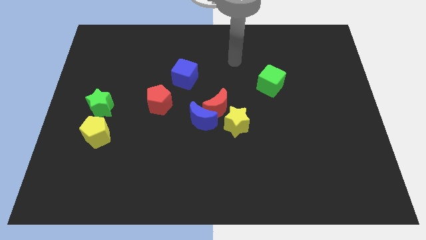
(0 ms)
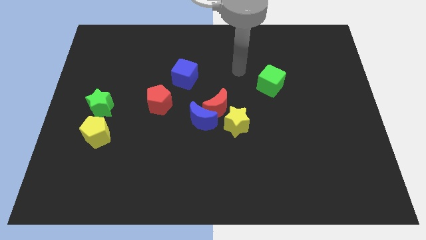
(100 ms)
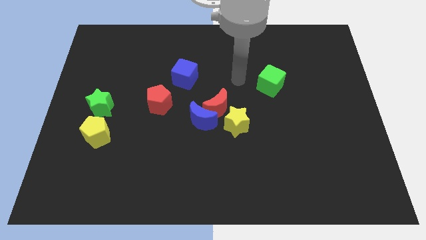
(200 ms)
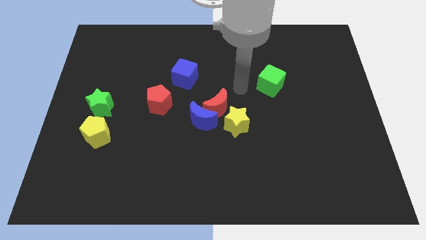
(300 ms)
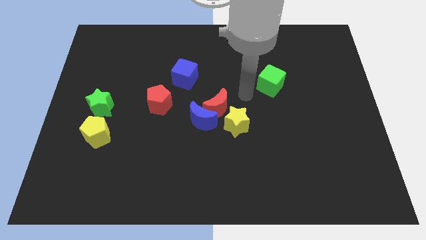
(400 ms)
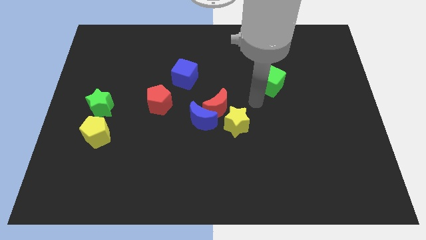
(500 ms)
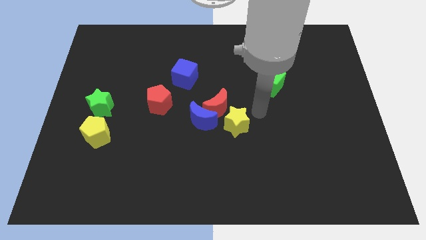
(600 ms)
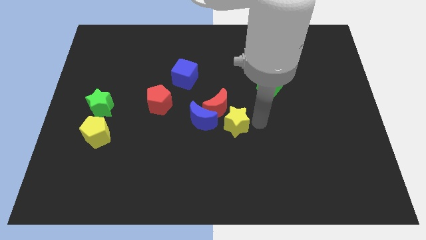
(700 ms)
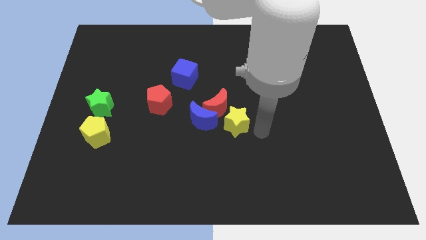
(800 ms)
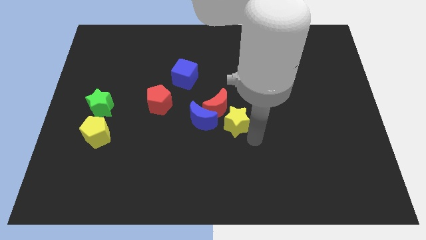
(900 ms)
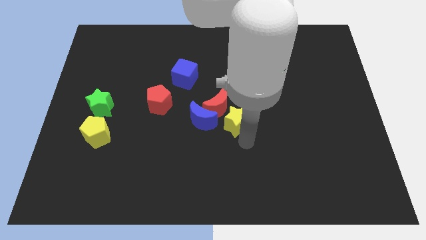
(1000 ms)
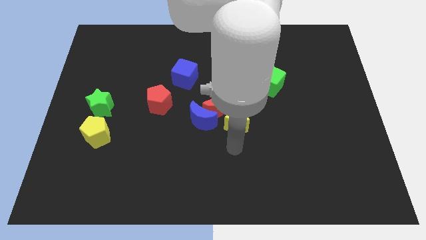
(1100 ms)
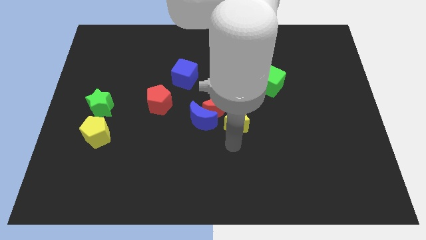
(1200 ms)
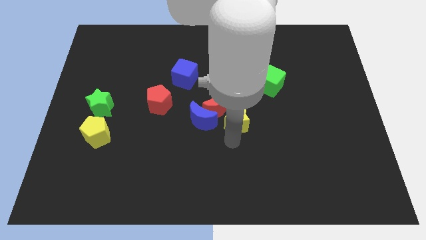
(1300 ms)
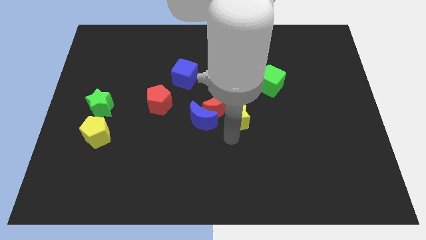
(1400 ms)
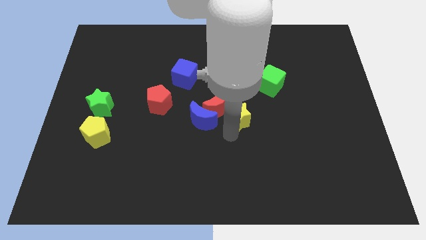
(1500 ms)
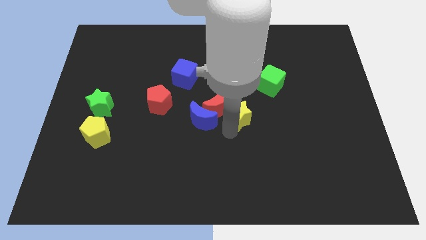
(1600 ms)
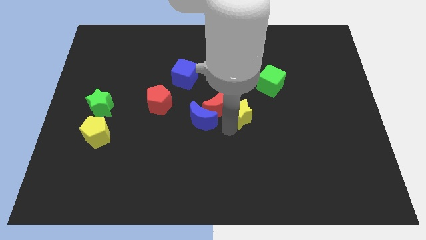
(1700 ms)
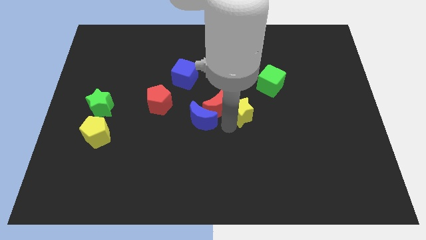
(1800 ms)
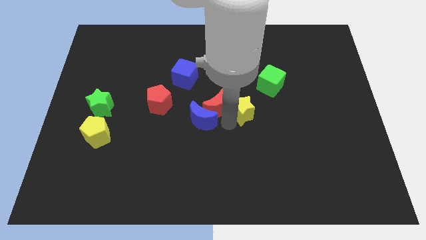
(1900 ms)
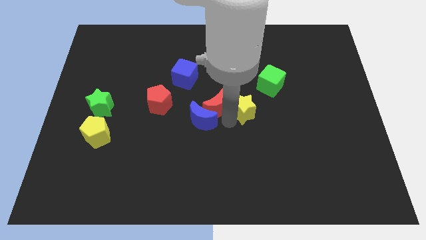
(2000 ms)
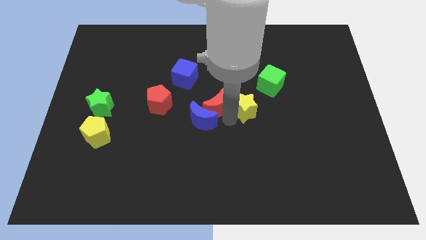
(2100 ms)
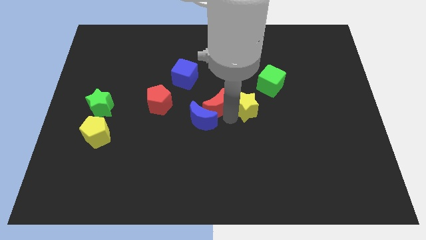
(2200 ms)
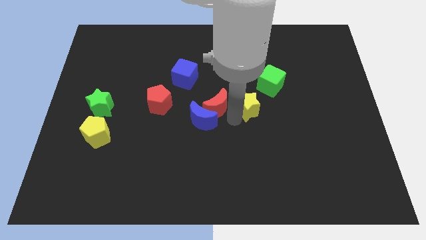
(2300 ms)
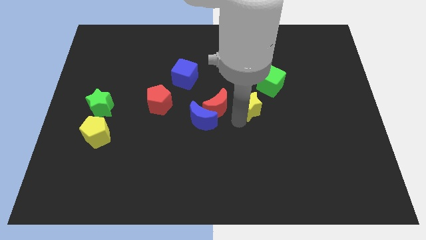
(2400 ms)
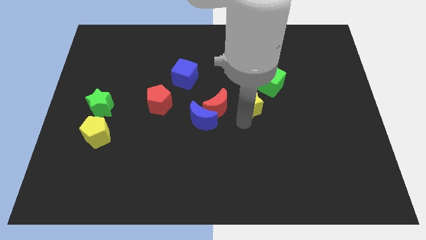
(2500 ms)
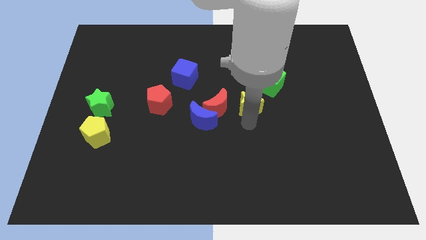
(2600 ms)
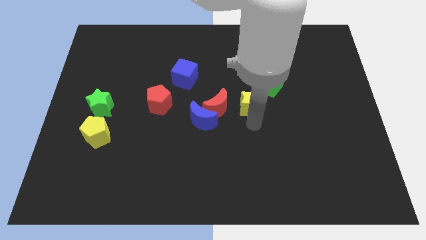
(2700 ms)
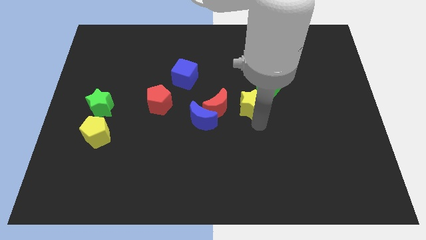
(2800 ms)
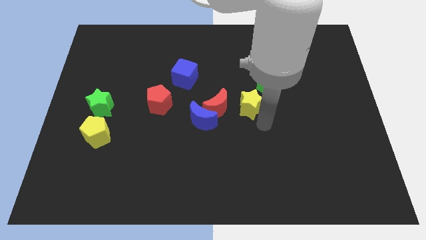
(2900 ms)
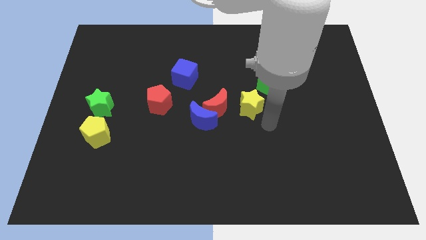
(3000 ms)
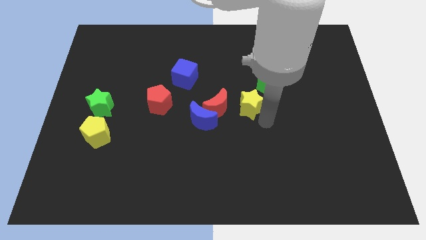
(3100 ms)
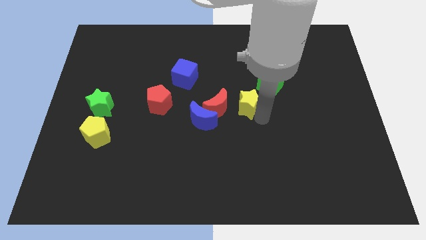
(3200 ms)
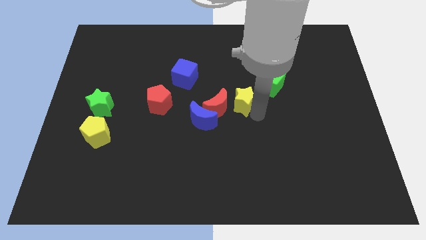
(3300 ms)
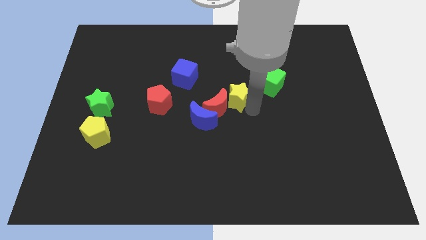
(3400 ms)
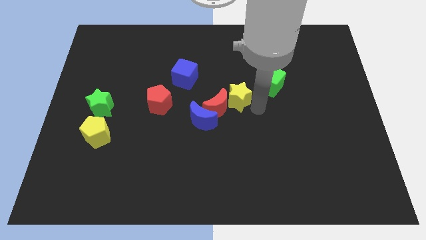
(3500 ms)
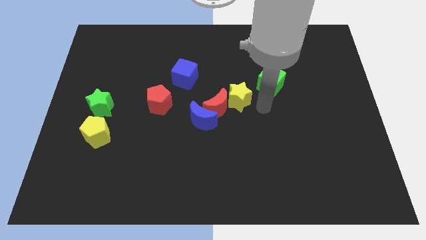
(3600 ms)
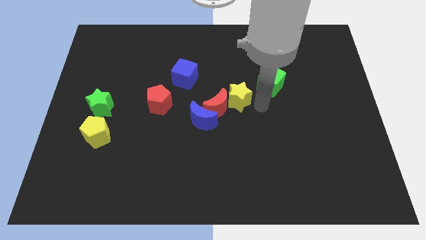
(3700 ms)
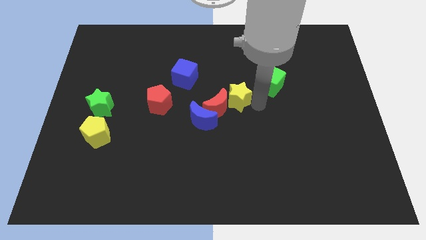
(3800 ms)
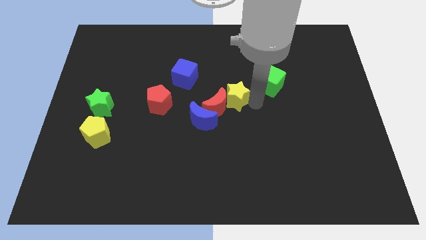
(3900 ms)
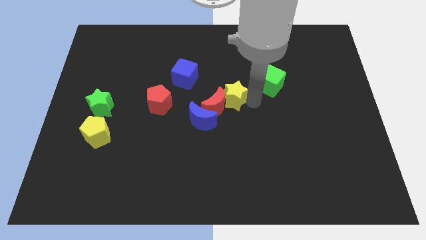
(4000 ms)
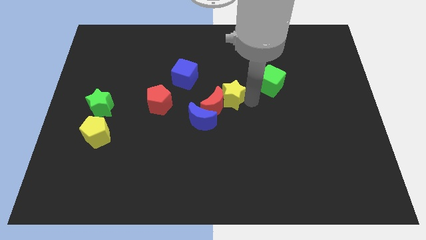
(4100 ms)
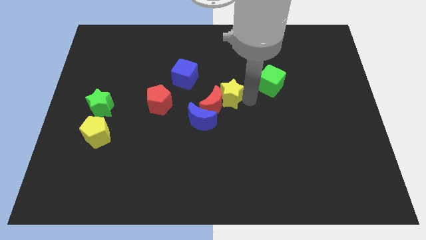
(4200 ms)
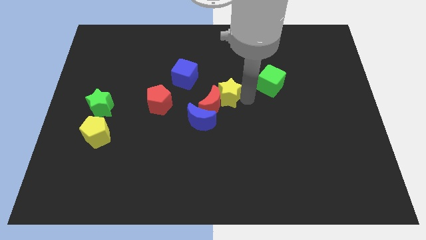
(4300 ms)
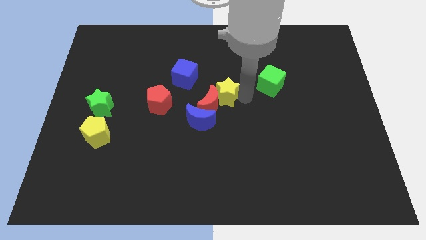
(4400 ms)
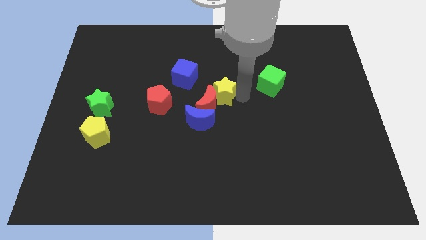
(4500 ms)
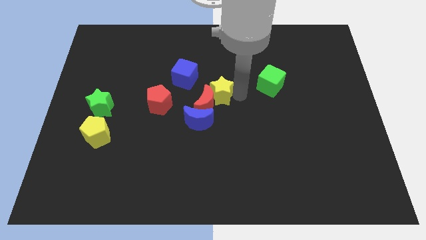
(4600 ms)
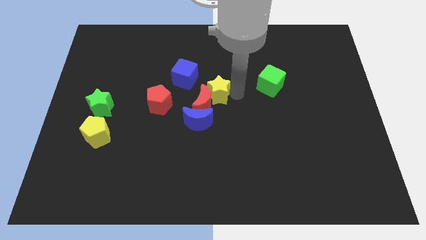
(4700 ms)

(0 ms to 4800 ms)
move the yellow star above the blue moon

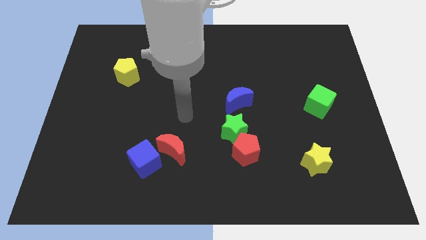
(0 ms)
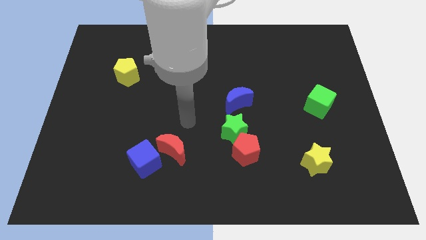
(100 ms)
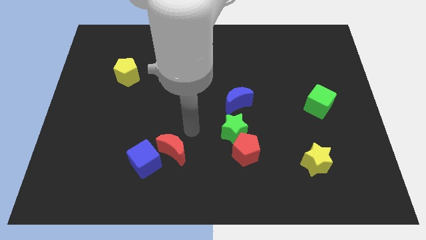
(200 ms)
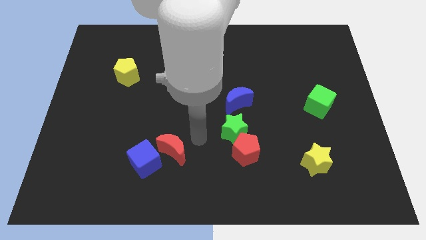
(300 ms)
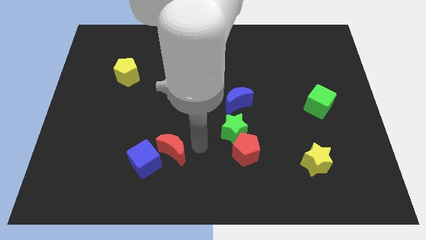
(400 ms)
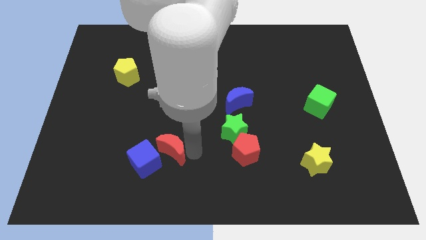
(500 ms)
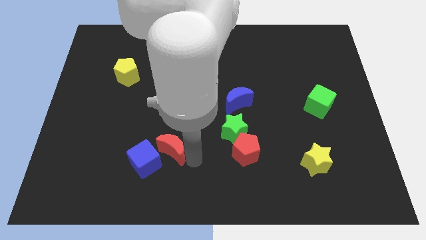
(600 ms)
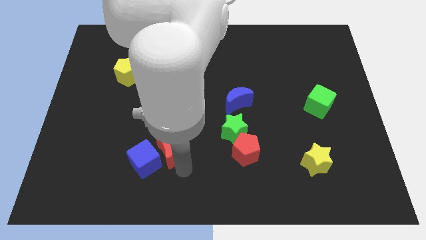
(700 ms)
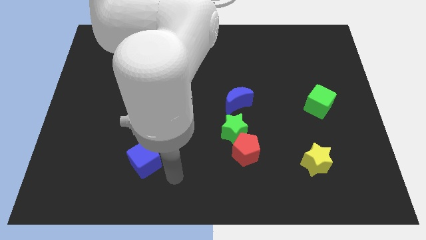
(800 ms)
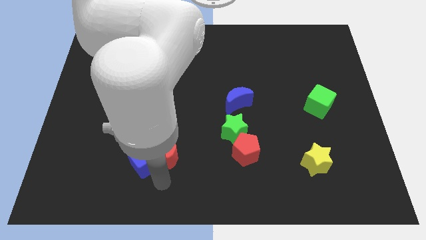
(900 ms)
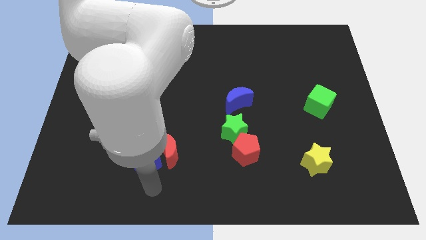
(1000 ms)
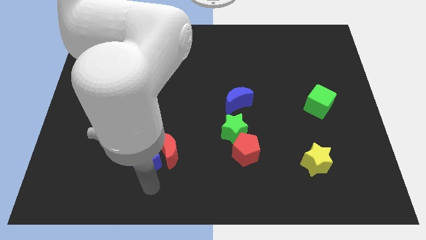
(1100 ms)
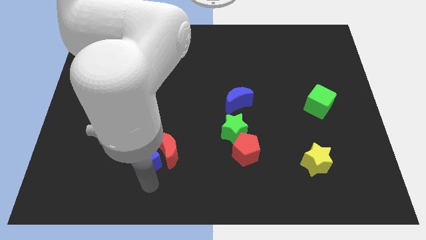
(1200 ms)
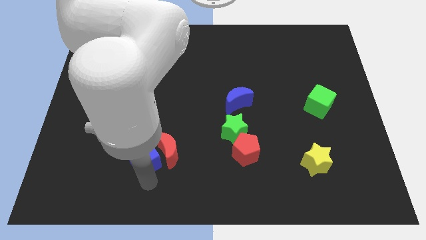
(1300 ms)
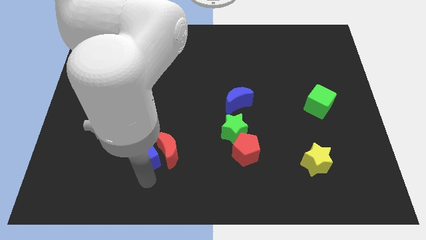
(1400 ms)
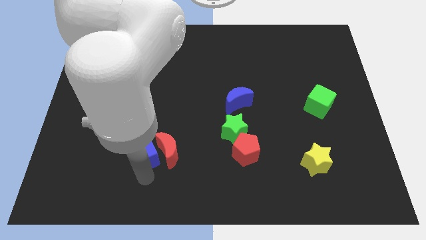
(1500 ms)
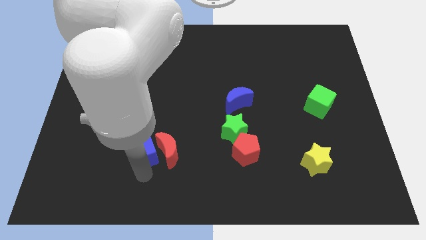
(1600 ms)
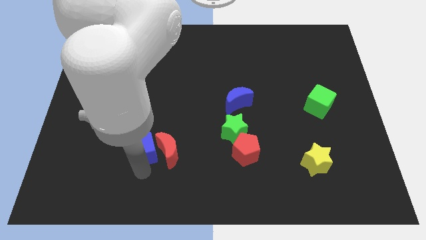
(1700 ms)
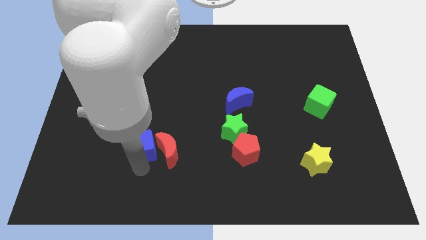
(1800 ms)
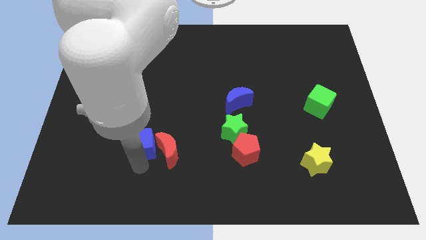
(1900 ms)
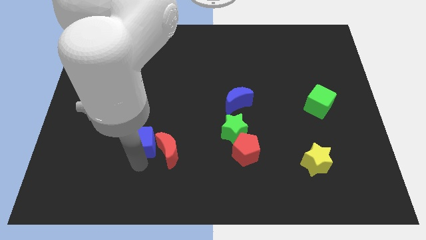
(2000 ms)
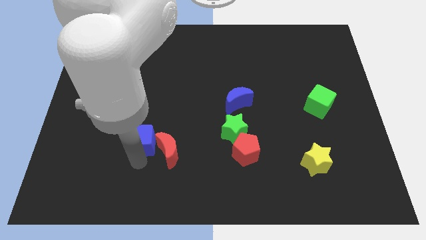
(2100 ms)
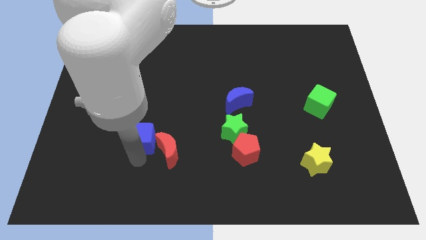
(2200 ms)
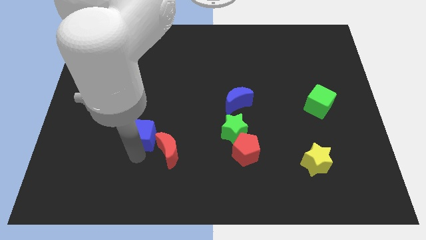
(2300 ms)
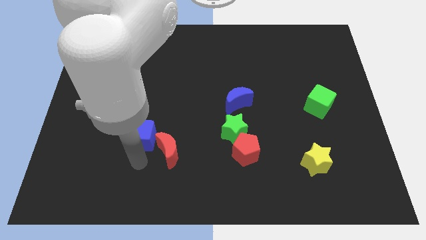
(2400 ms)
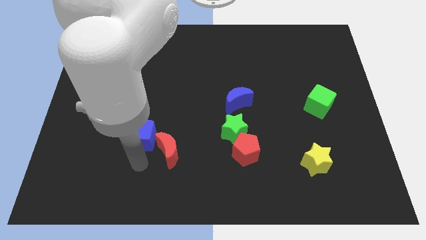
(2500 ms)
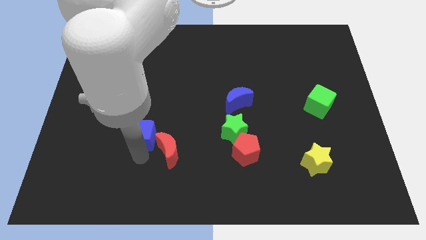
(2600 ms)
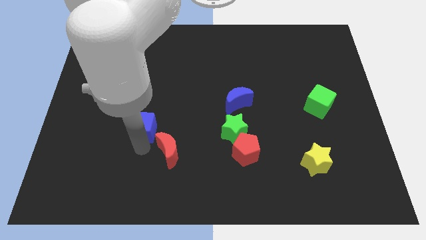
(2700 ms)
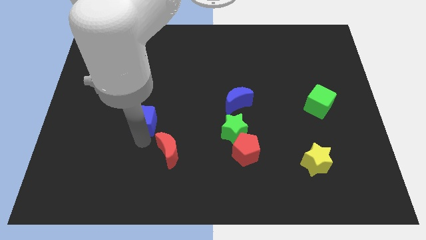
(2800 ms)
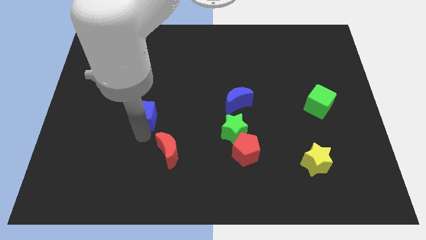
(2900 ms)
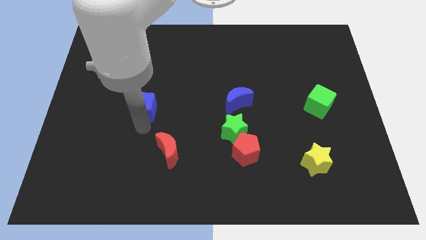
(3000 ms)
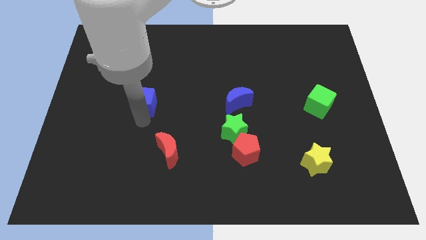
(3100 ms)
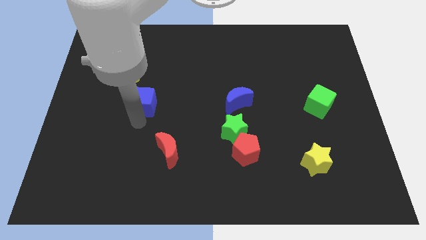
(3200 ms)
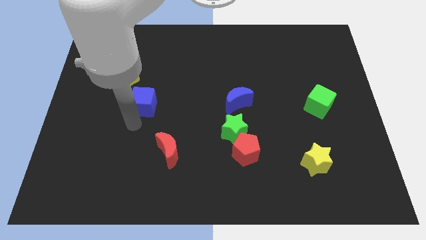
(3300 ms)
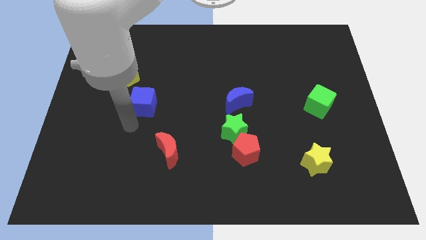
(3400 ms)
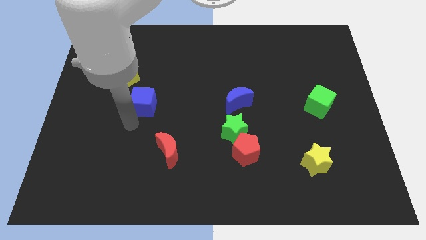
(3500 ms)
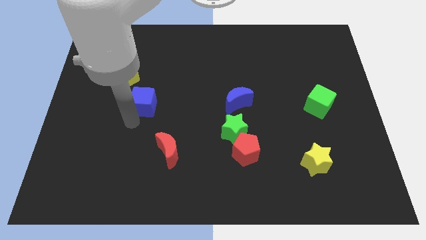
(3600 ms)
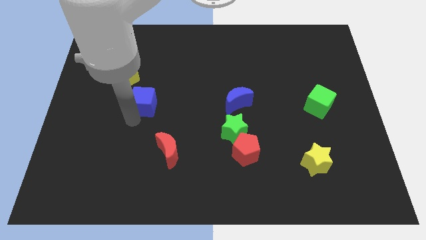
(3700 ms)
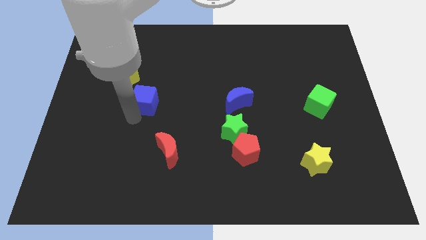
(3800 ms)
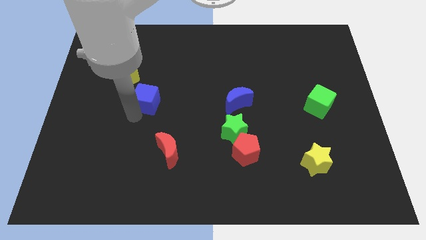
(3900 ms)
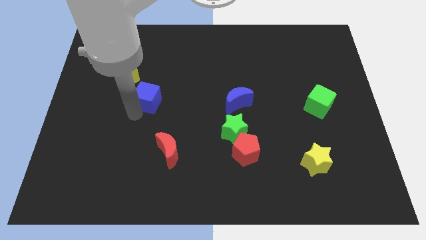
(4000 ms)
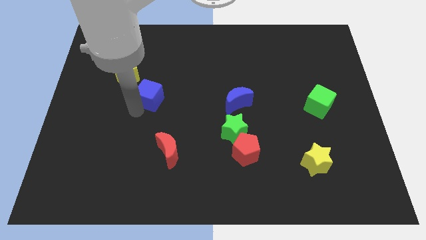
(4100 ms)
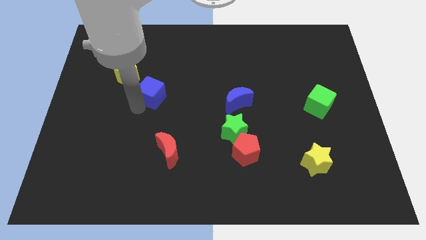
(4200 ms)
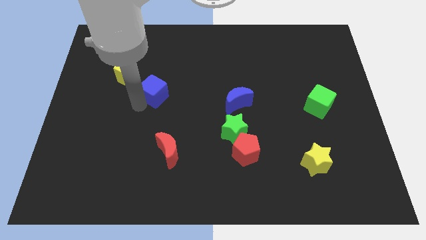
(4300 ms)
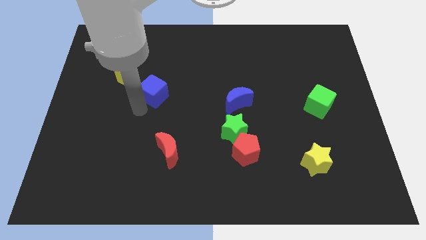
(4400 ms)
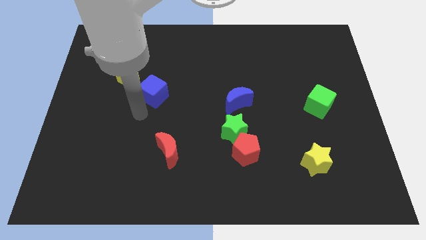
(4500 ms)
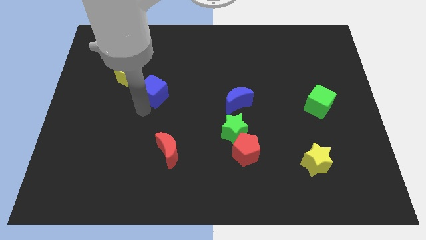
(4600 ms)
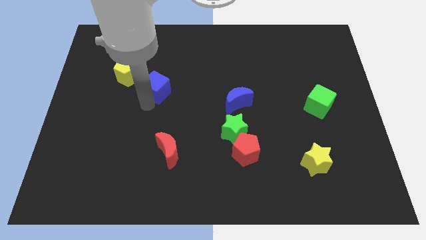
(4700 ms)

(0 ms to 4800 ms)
put the blue cube to the right side of the yellow pentagon
